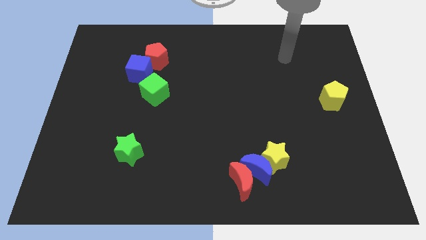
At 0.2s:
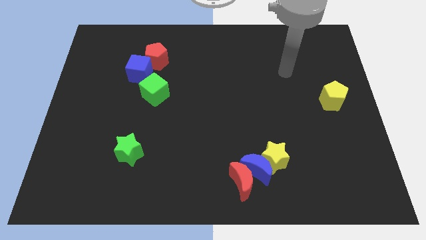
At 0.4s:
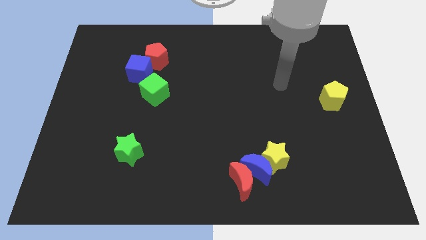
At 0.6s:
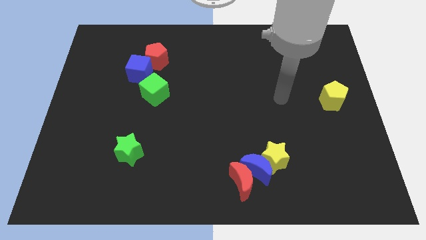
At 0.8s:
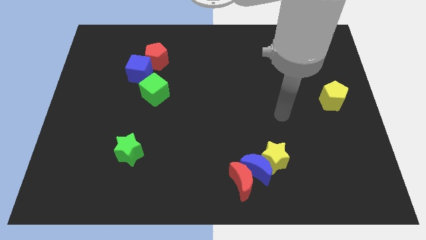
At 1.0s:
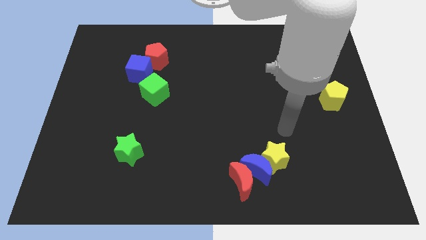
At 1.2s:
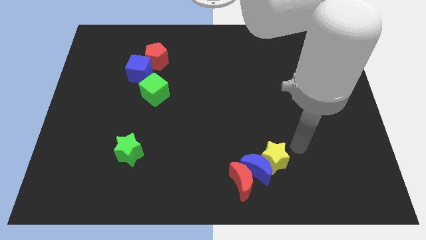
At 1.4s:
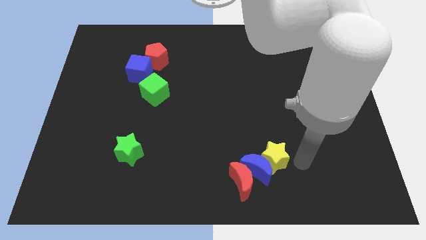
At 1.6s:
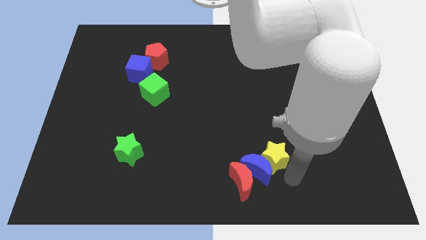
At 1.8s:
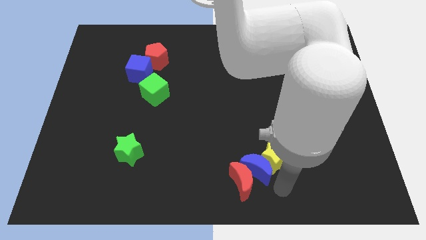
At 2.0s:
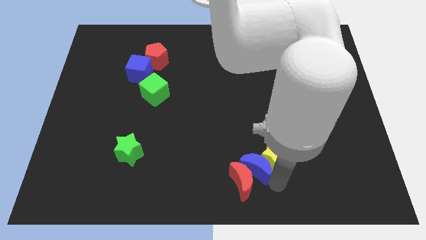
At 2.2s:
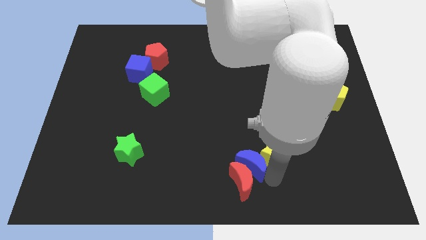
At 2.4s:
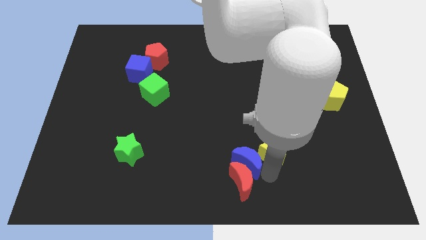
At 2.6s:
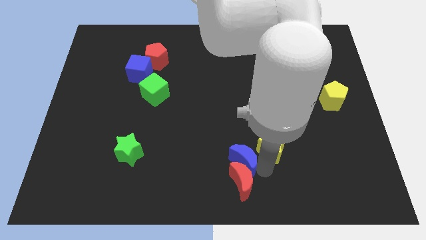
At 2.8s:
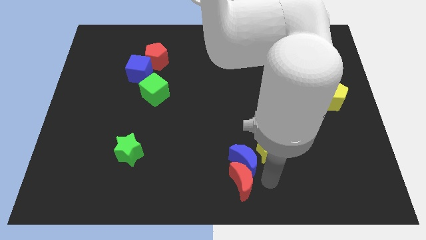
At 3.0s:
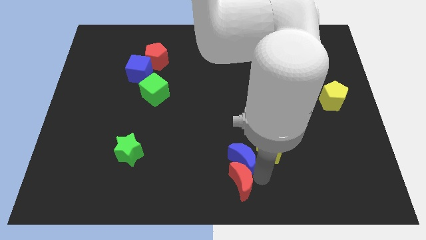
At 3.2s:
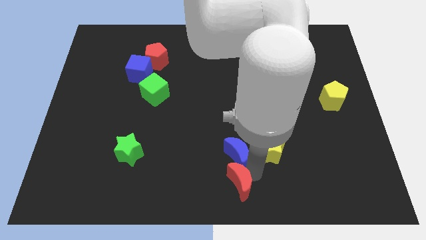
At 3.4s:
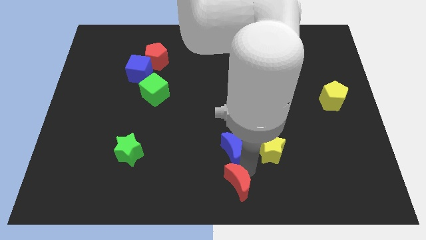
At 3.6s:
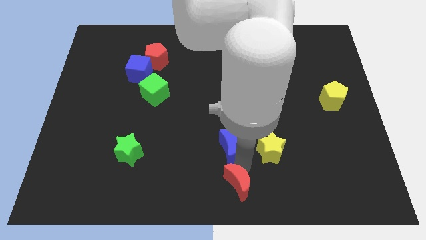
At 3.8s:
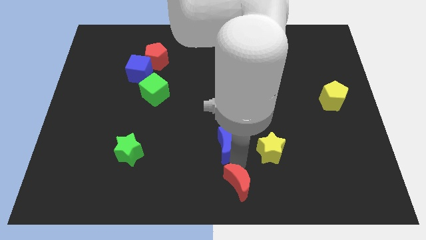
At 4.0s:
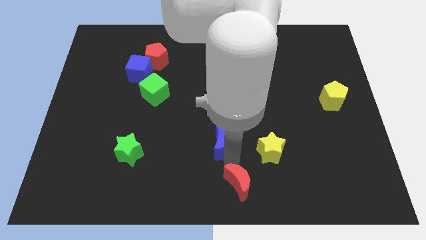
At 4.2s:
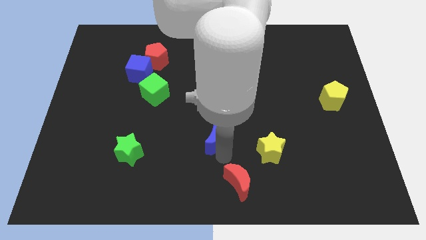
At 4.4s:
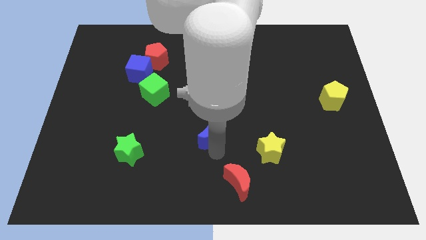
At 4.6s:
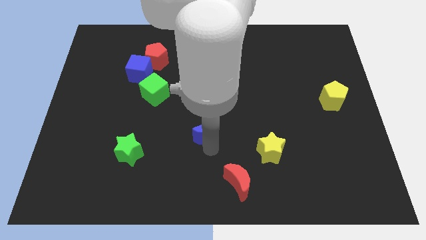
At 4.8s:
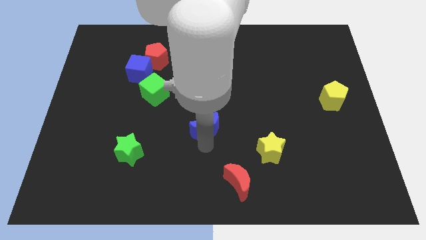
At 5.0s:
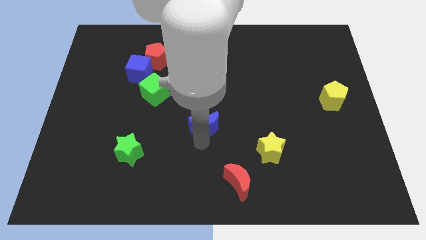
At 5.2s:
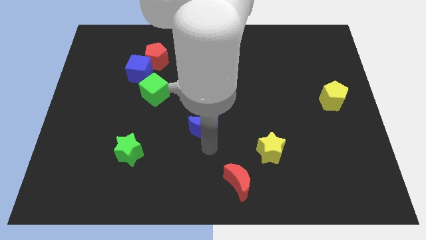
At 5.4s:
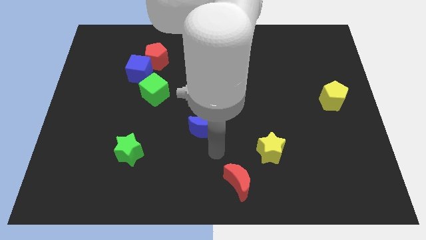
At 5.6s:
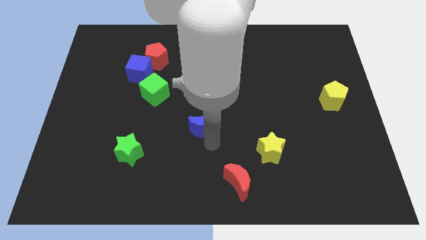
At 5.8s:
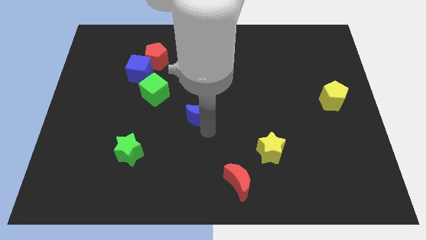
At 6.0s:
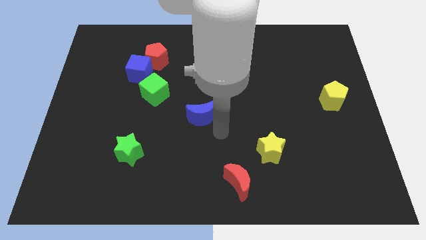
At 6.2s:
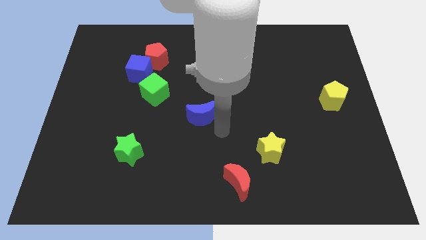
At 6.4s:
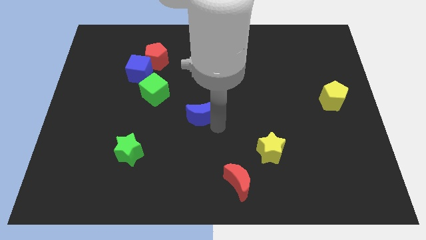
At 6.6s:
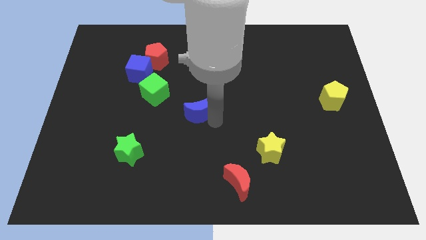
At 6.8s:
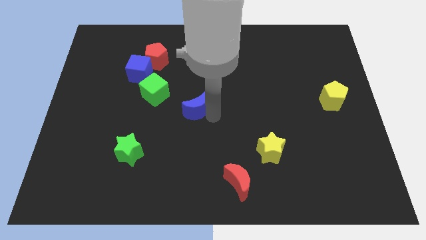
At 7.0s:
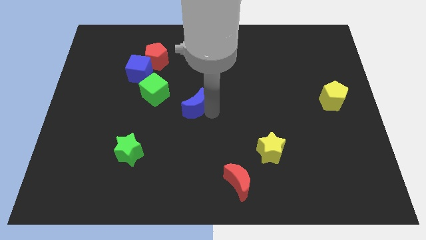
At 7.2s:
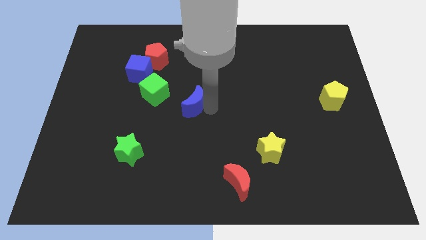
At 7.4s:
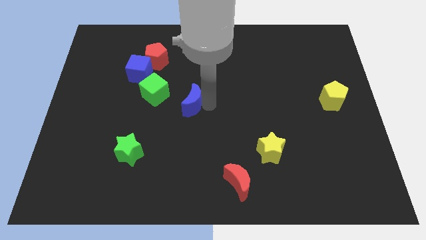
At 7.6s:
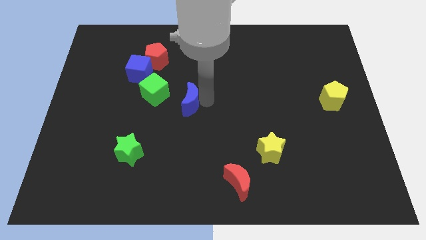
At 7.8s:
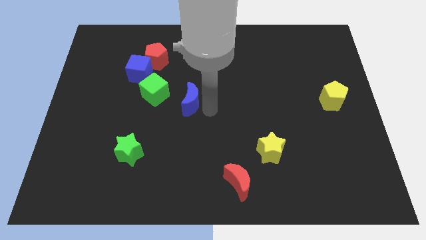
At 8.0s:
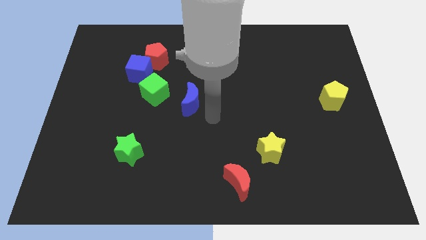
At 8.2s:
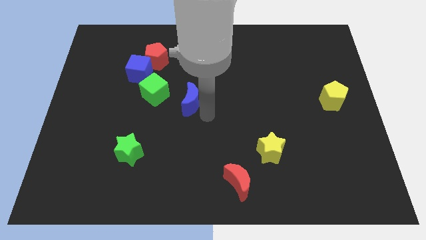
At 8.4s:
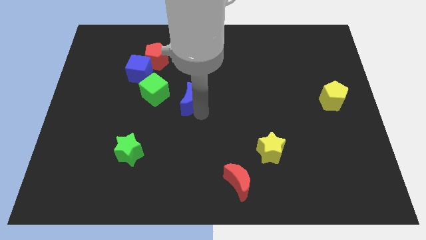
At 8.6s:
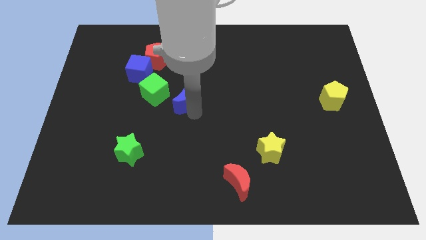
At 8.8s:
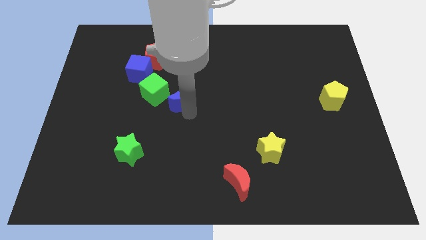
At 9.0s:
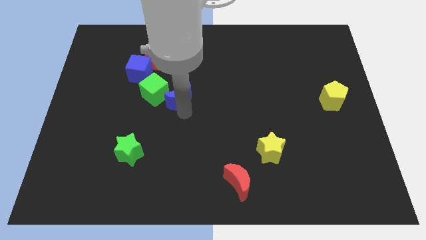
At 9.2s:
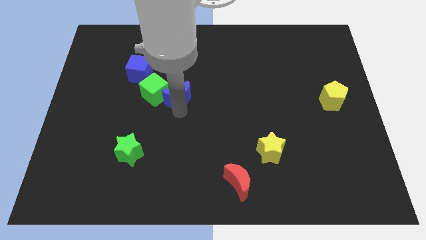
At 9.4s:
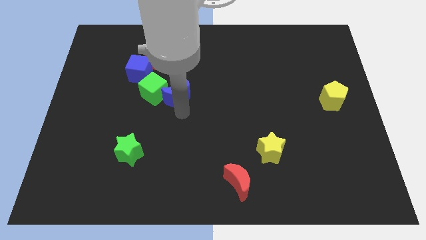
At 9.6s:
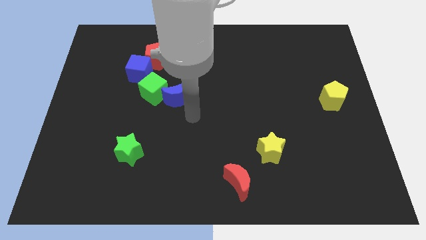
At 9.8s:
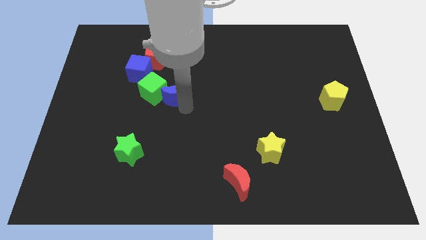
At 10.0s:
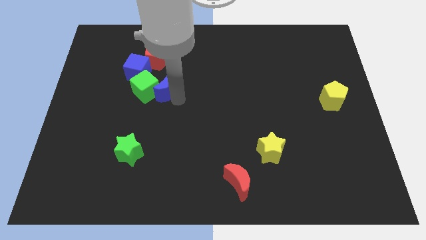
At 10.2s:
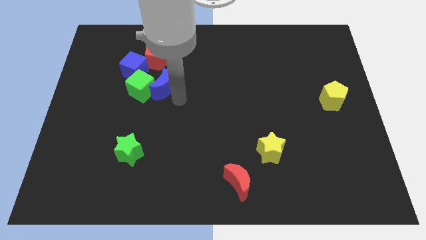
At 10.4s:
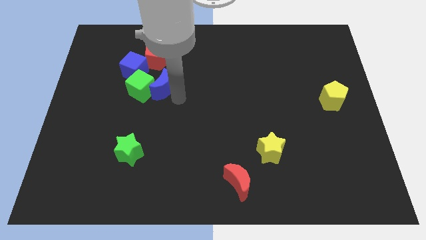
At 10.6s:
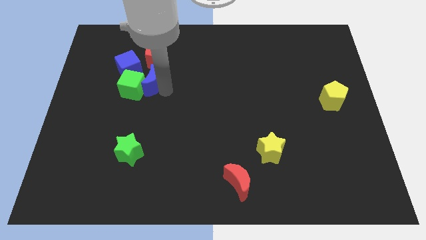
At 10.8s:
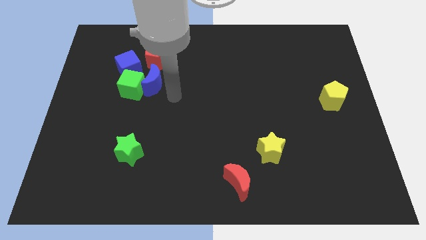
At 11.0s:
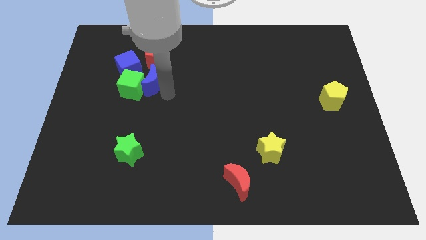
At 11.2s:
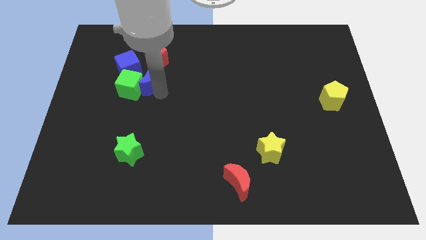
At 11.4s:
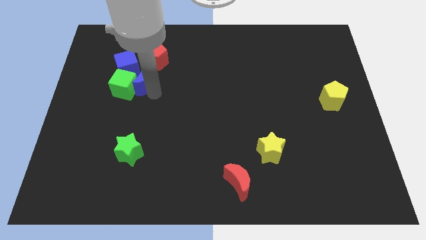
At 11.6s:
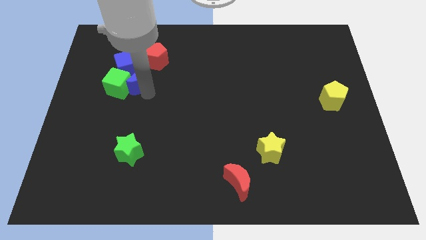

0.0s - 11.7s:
move the blue moon to the blue cube

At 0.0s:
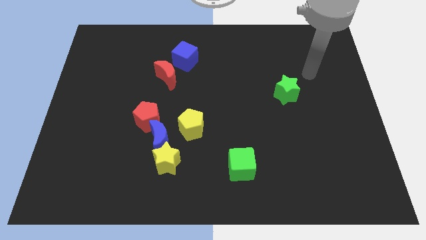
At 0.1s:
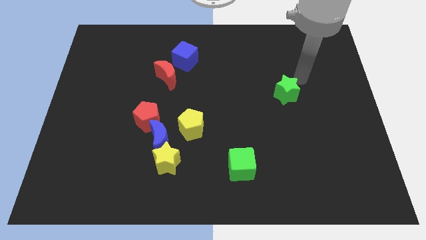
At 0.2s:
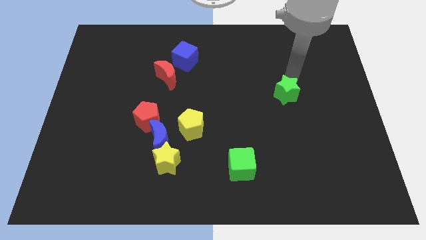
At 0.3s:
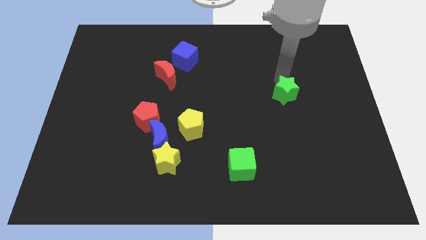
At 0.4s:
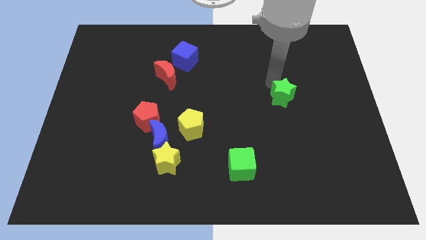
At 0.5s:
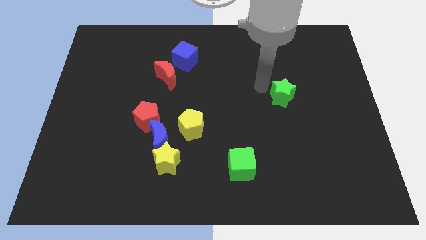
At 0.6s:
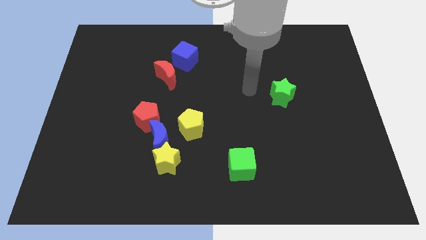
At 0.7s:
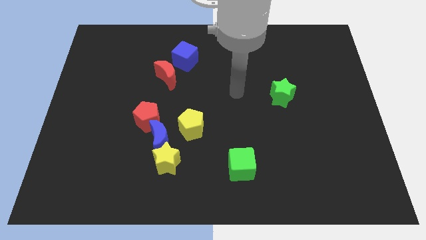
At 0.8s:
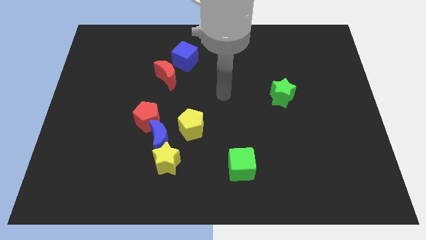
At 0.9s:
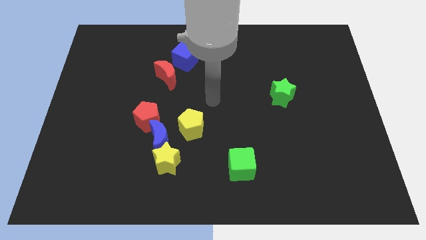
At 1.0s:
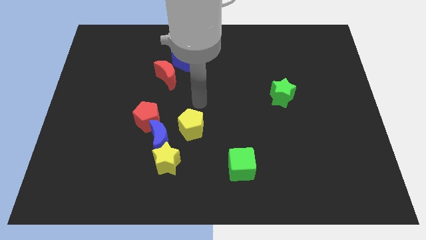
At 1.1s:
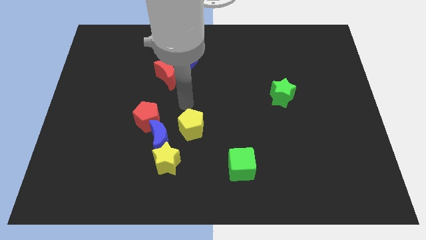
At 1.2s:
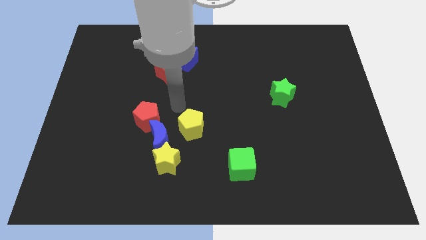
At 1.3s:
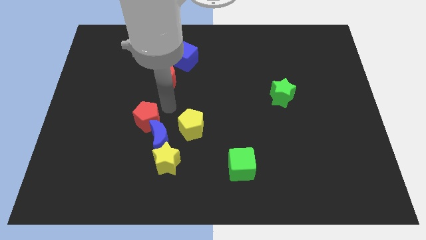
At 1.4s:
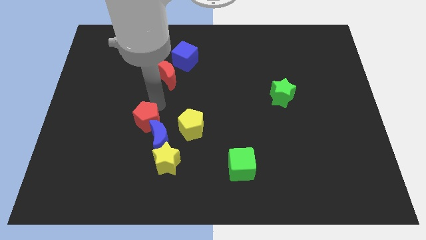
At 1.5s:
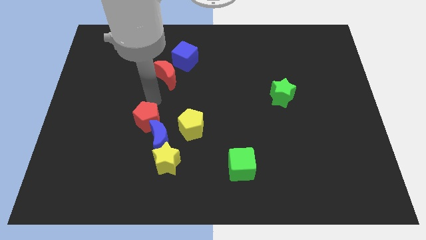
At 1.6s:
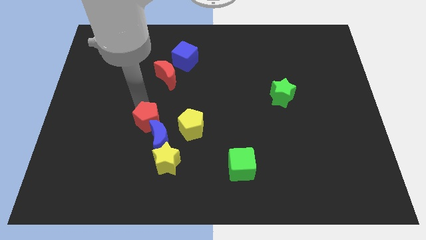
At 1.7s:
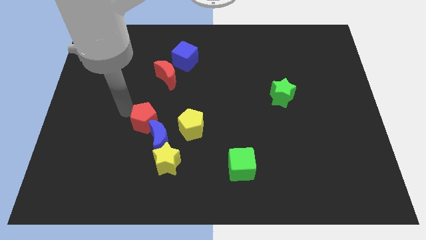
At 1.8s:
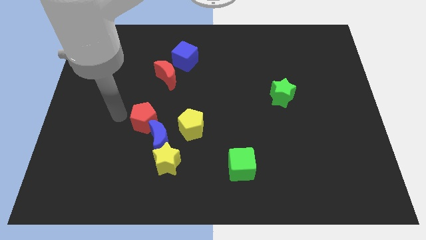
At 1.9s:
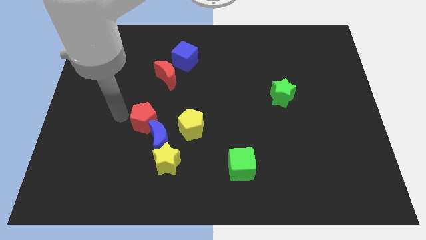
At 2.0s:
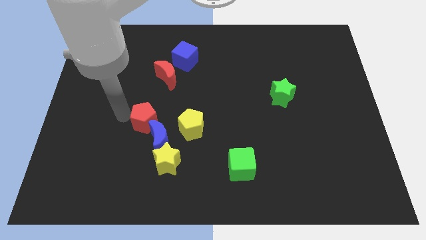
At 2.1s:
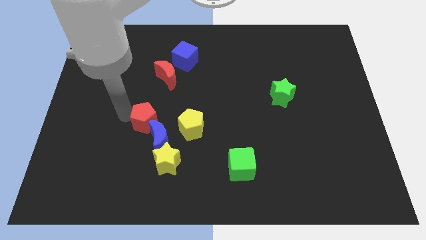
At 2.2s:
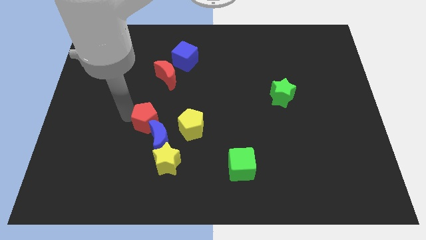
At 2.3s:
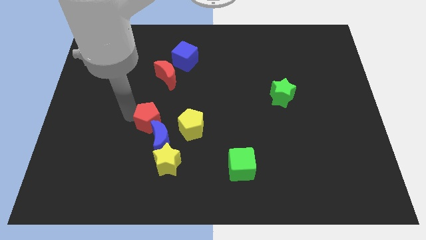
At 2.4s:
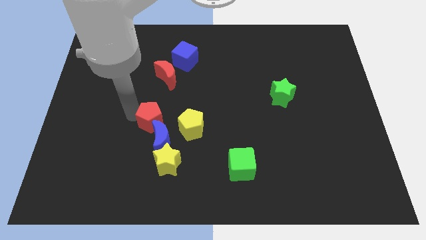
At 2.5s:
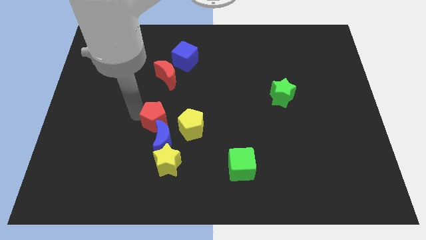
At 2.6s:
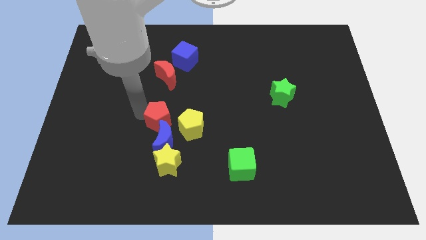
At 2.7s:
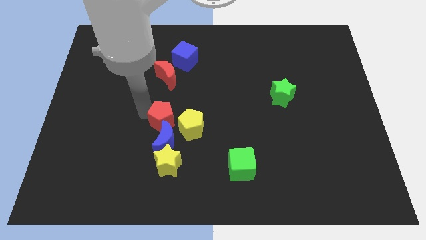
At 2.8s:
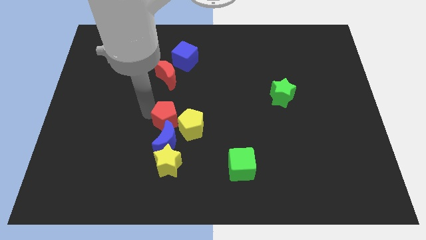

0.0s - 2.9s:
slide the red pentagon to the yellow pentagon
